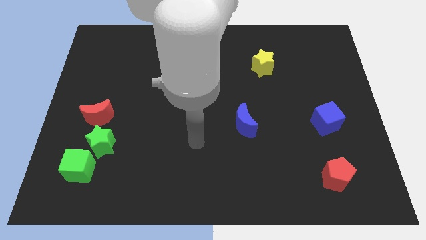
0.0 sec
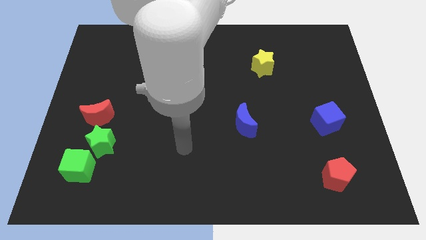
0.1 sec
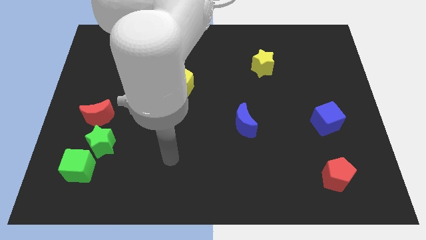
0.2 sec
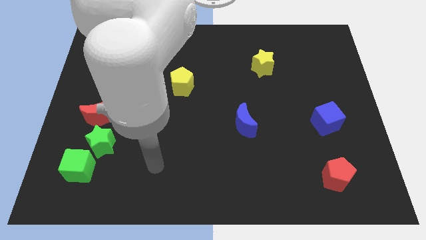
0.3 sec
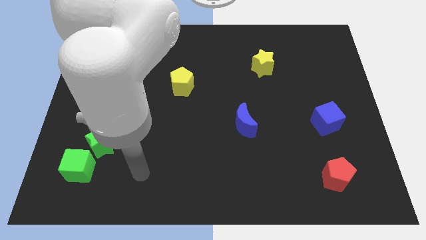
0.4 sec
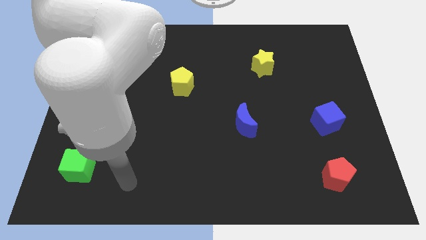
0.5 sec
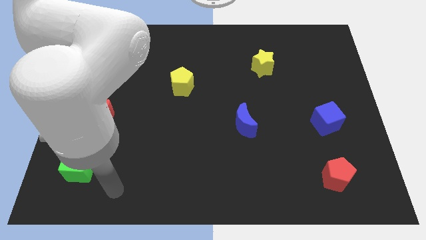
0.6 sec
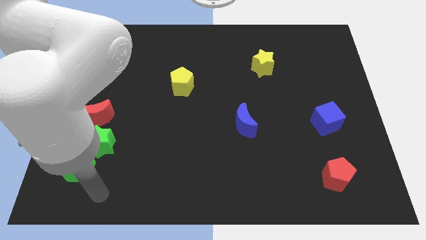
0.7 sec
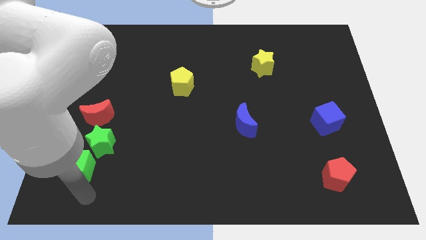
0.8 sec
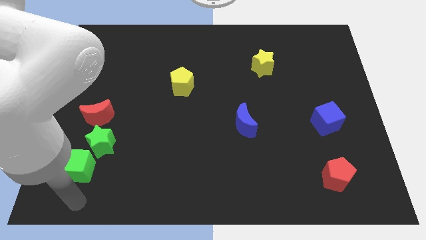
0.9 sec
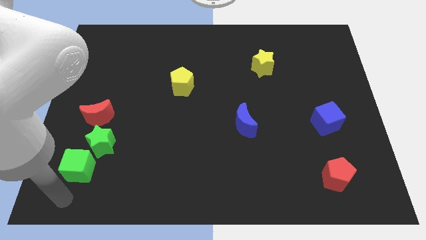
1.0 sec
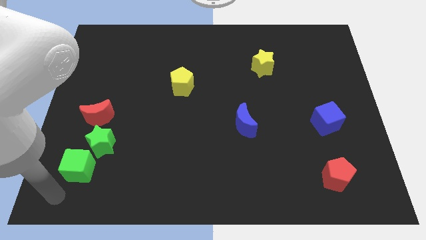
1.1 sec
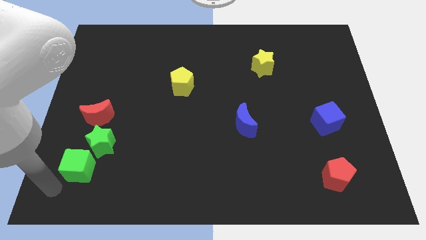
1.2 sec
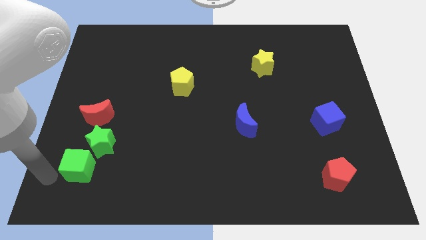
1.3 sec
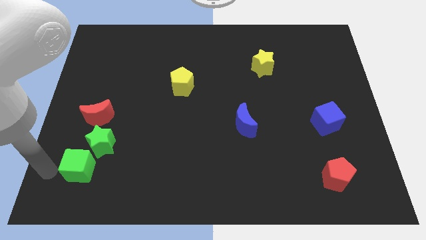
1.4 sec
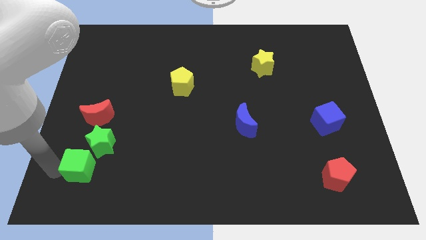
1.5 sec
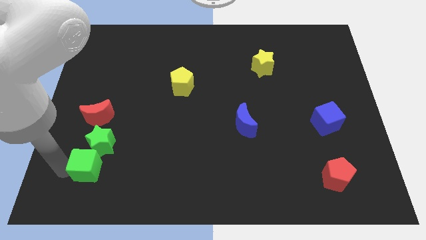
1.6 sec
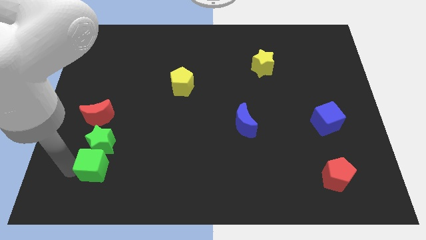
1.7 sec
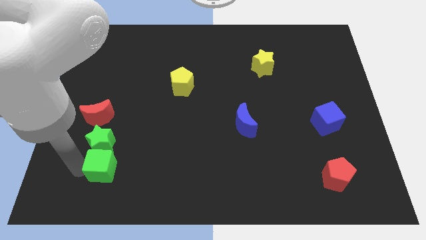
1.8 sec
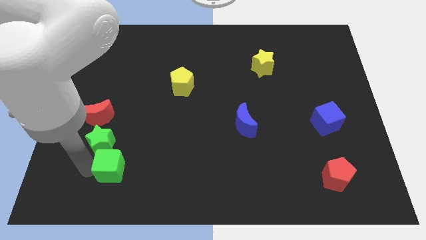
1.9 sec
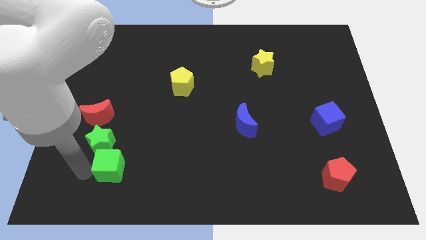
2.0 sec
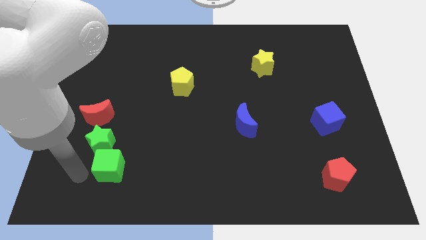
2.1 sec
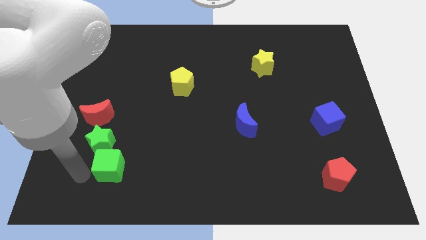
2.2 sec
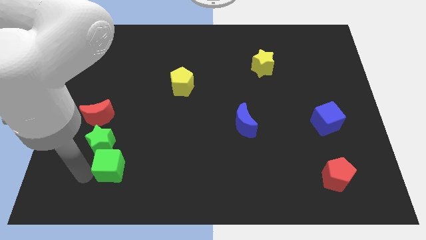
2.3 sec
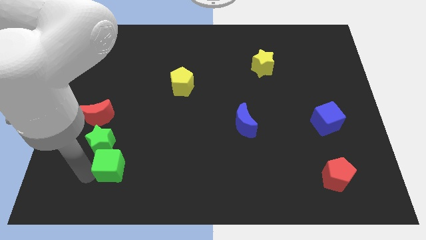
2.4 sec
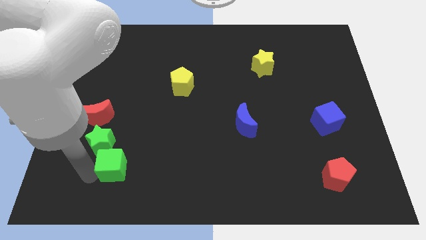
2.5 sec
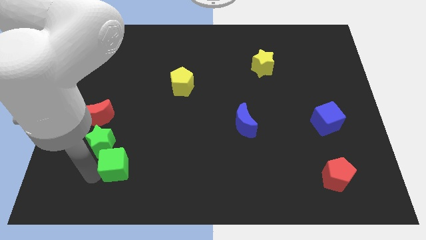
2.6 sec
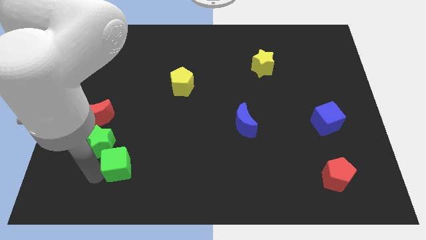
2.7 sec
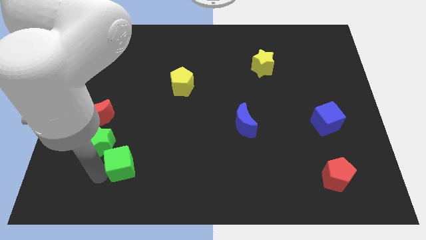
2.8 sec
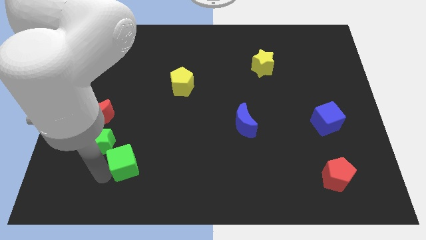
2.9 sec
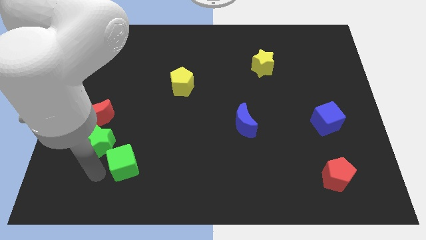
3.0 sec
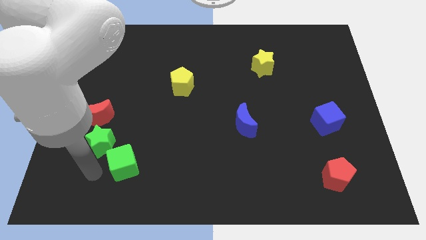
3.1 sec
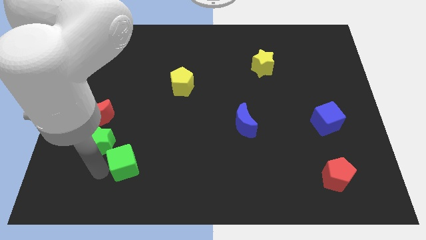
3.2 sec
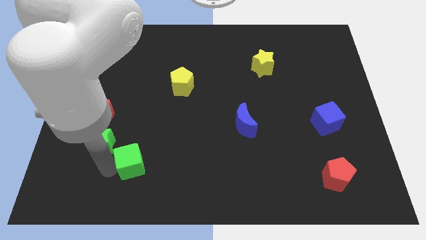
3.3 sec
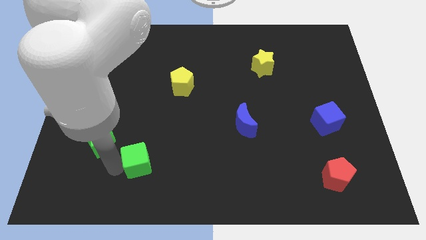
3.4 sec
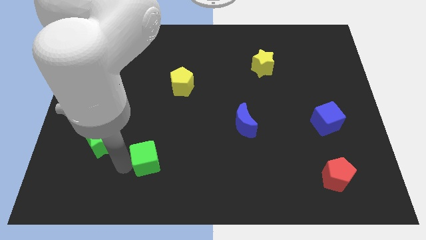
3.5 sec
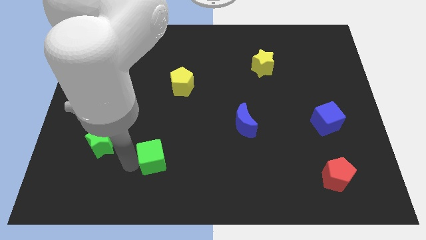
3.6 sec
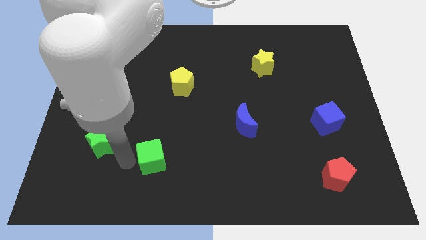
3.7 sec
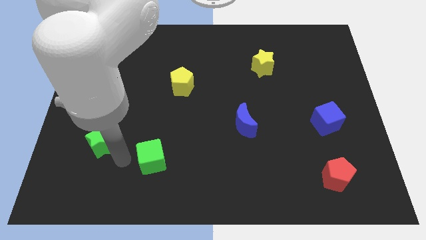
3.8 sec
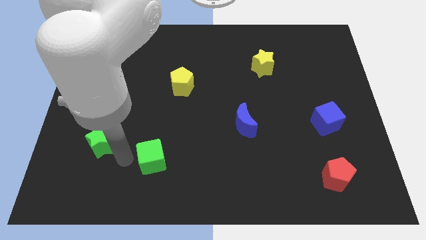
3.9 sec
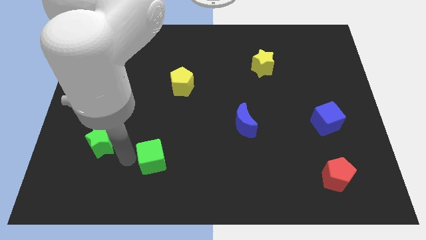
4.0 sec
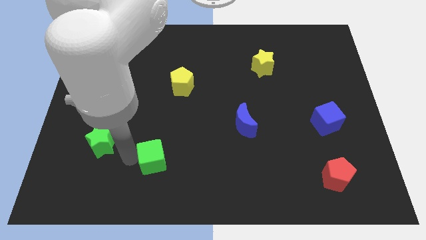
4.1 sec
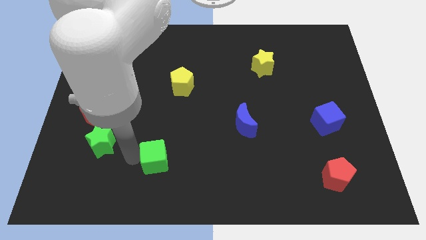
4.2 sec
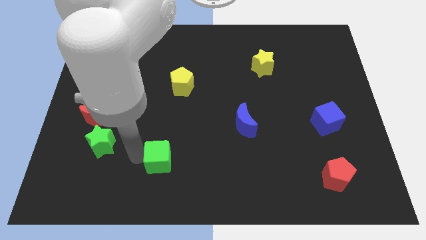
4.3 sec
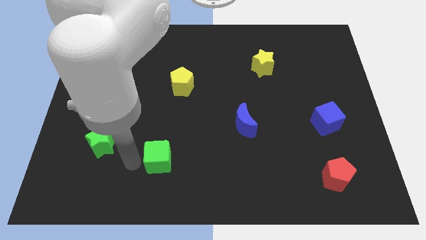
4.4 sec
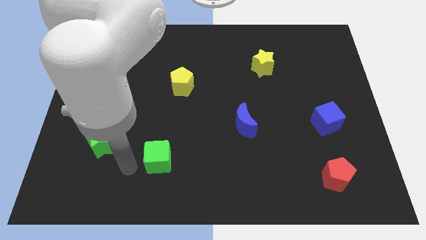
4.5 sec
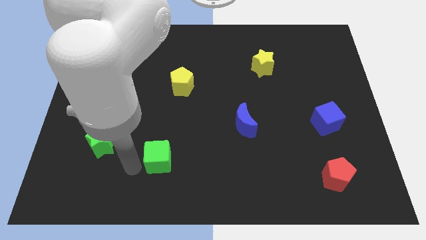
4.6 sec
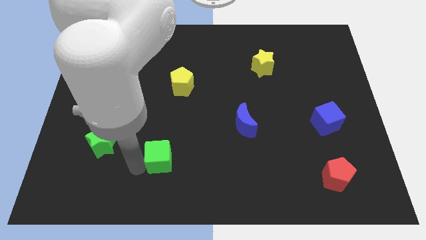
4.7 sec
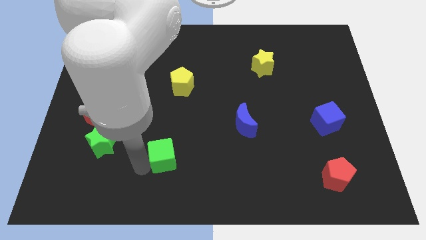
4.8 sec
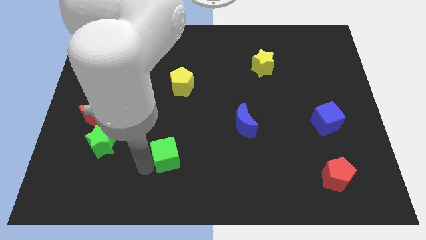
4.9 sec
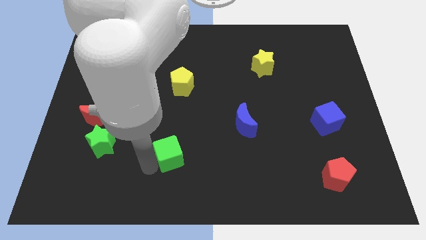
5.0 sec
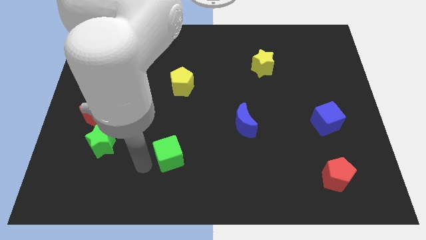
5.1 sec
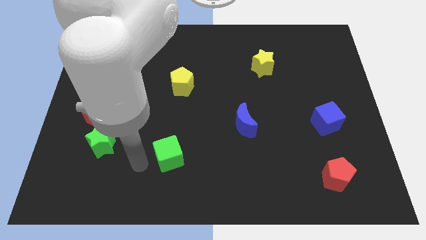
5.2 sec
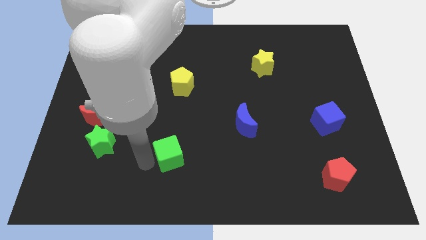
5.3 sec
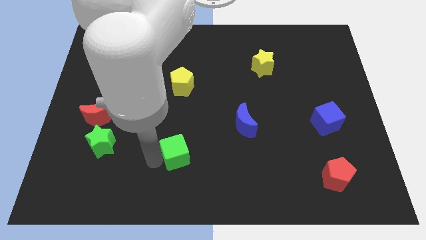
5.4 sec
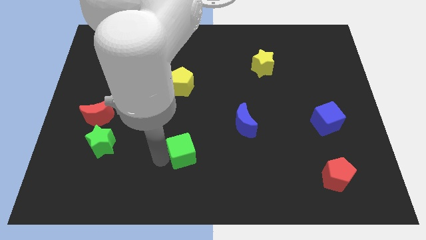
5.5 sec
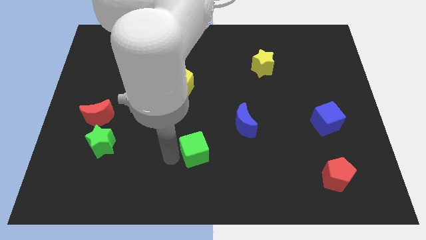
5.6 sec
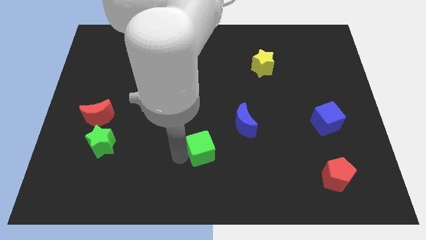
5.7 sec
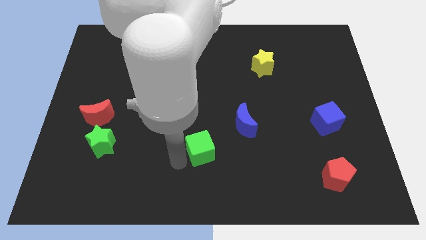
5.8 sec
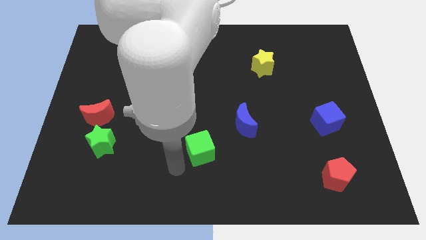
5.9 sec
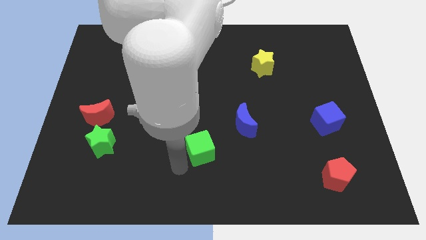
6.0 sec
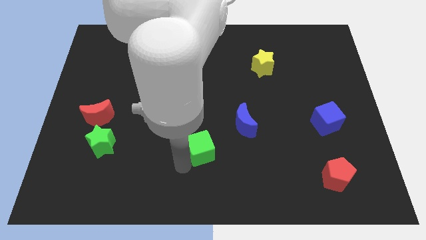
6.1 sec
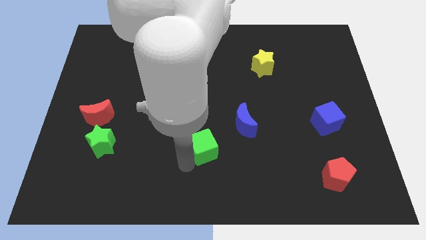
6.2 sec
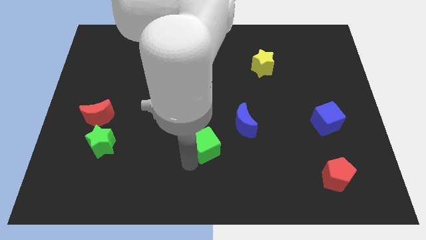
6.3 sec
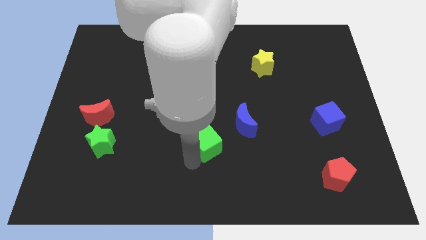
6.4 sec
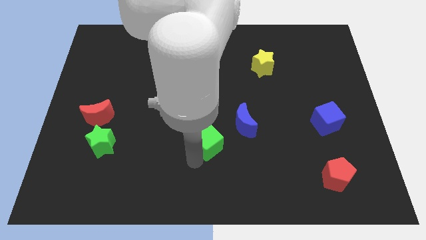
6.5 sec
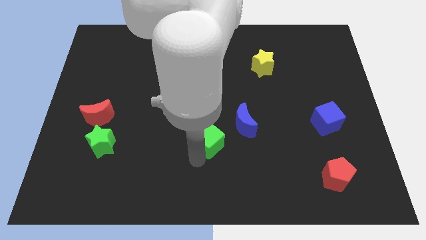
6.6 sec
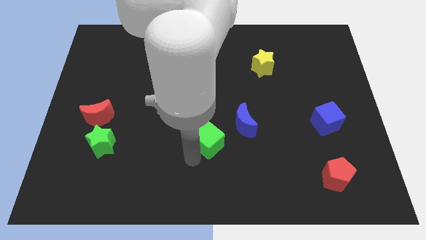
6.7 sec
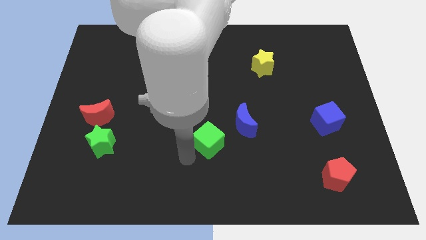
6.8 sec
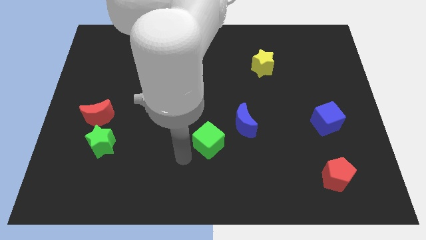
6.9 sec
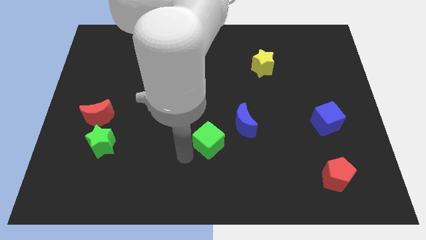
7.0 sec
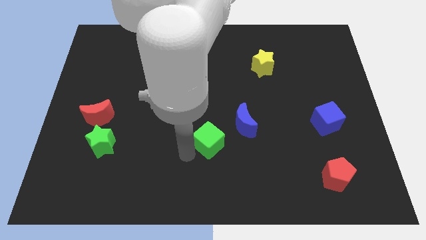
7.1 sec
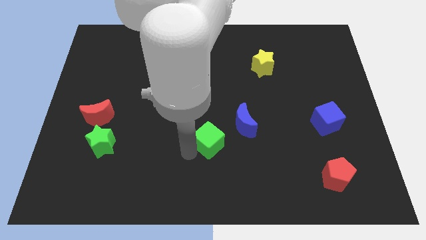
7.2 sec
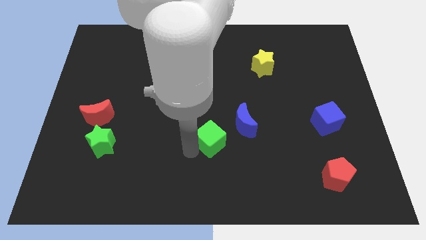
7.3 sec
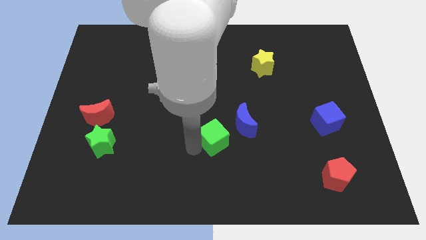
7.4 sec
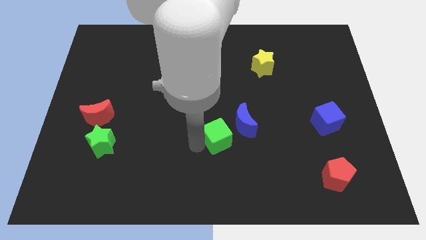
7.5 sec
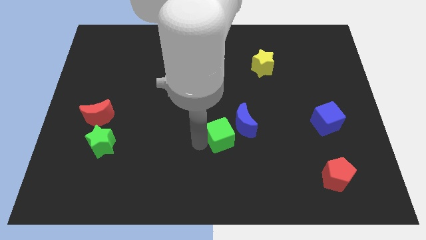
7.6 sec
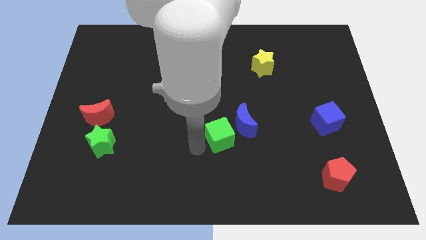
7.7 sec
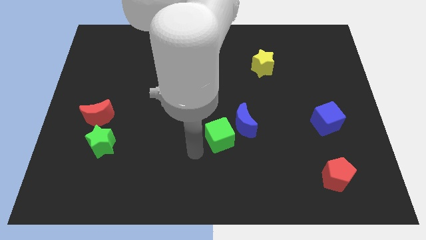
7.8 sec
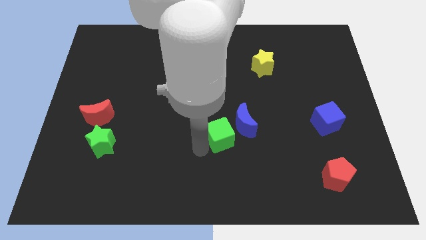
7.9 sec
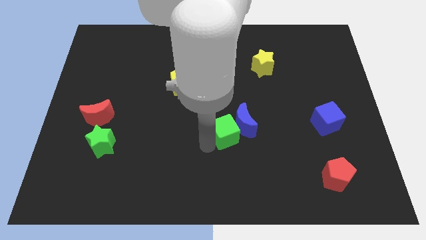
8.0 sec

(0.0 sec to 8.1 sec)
put the green cube close to the blue moon
